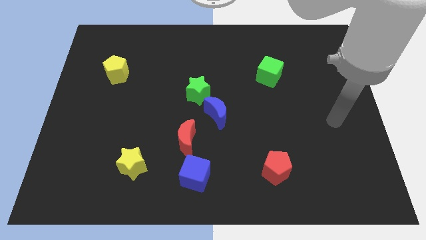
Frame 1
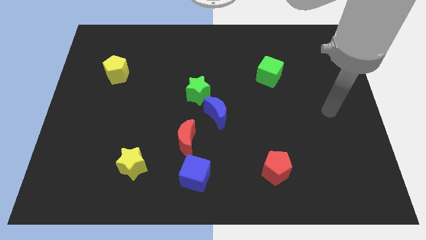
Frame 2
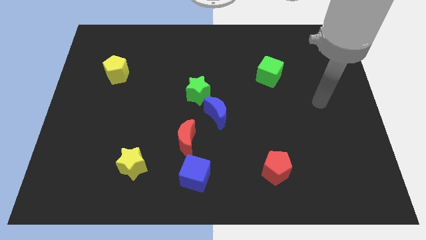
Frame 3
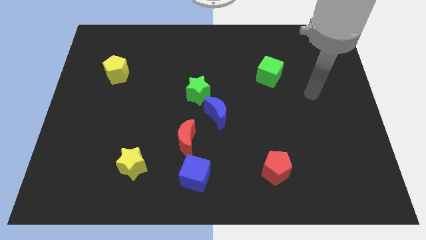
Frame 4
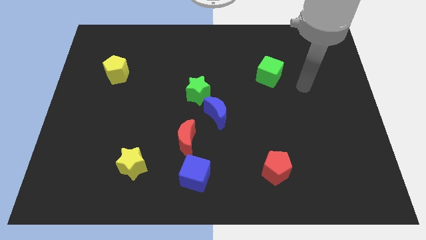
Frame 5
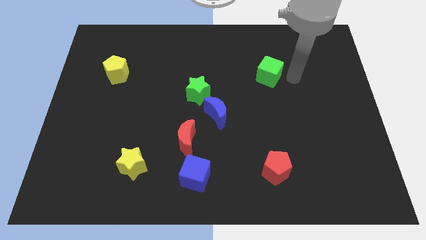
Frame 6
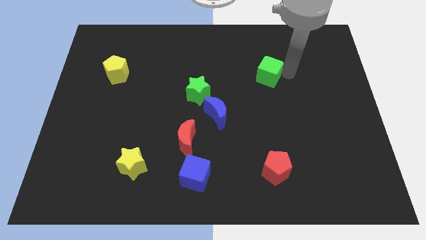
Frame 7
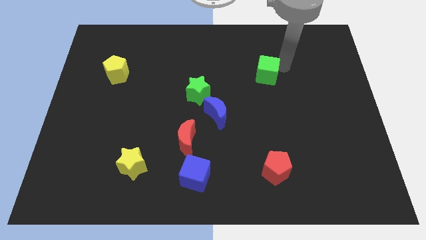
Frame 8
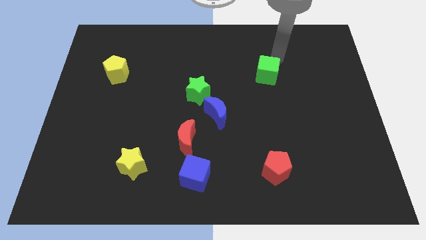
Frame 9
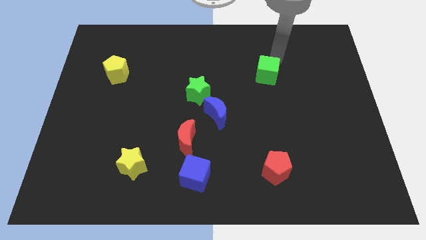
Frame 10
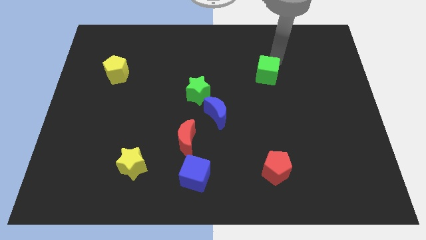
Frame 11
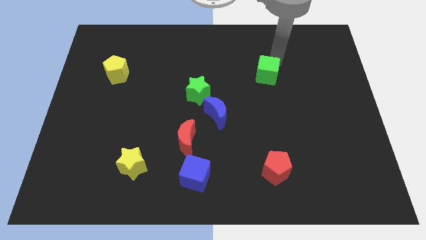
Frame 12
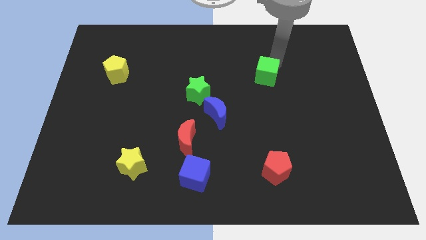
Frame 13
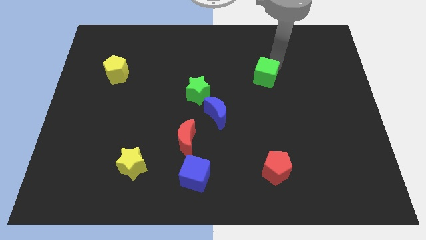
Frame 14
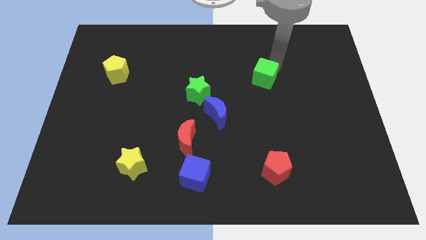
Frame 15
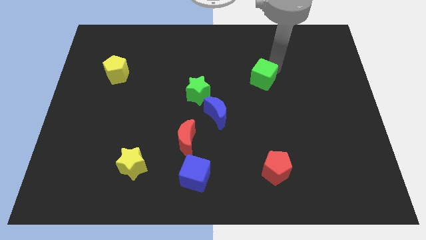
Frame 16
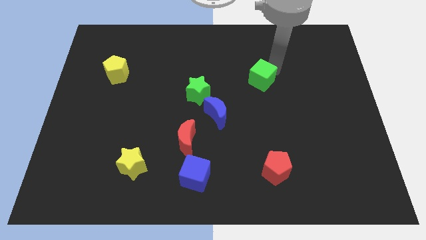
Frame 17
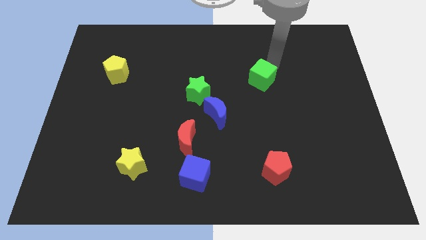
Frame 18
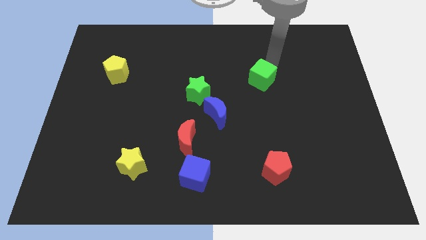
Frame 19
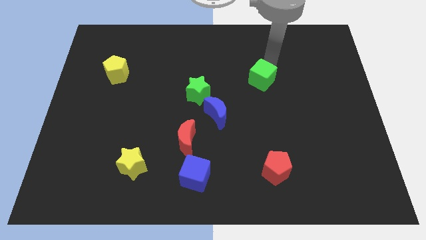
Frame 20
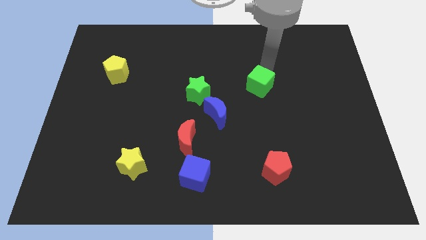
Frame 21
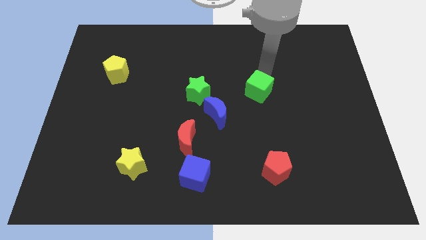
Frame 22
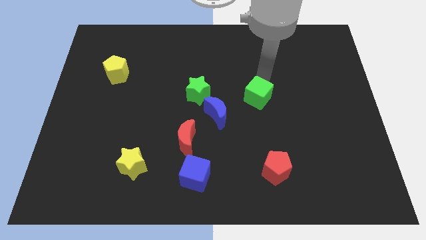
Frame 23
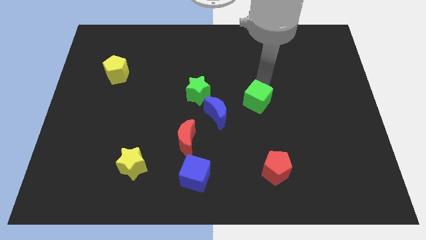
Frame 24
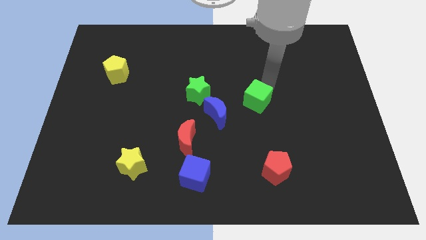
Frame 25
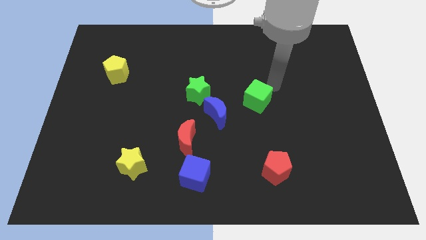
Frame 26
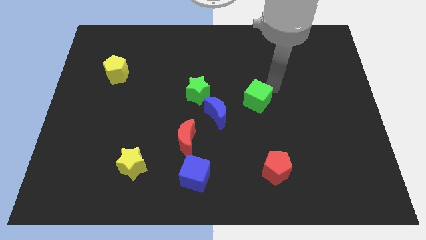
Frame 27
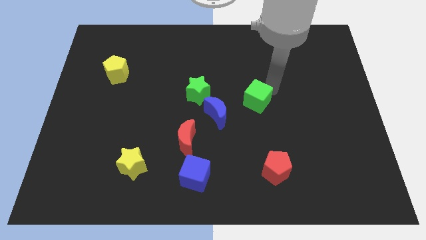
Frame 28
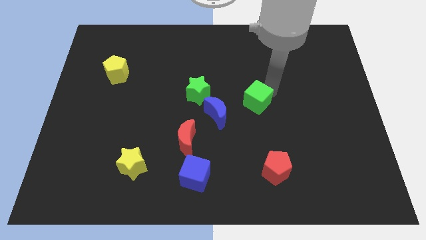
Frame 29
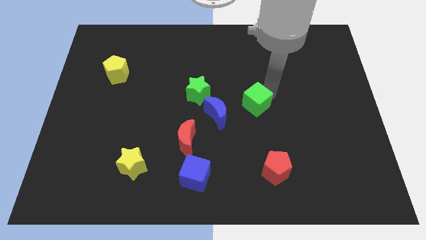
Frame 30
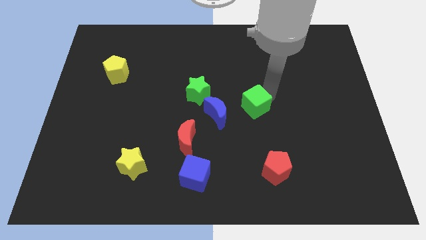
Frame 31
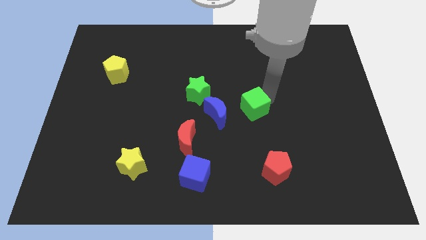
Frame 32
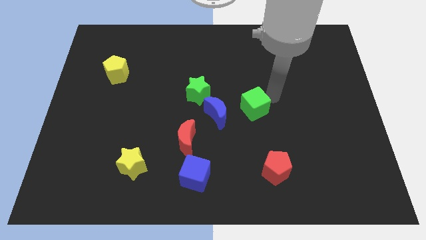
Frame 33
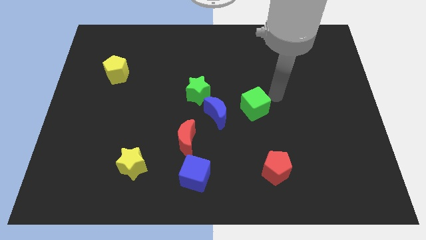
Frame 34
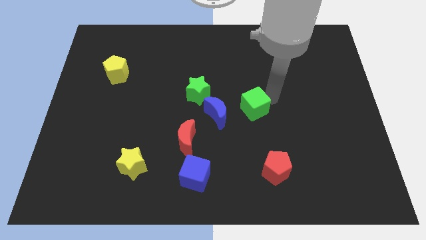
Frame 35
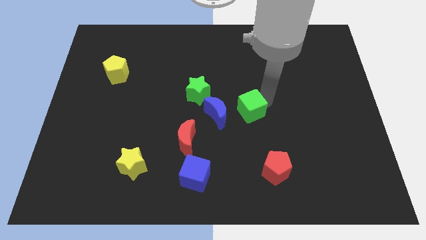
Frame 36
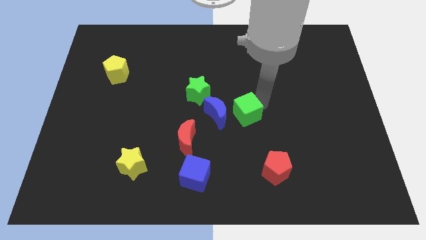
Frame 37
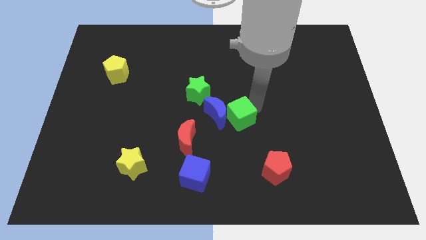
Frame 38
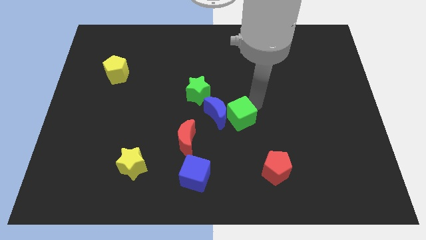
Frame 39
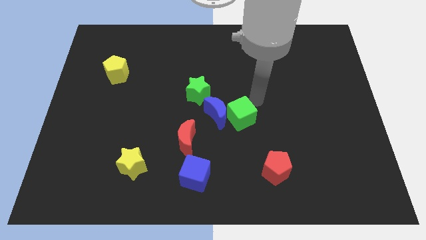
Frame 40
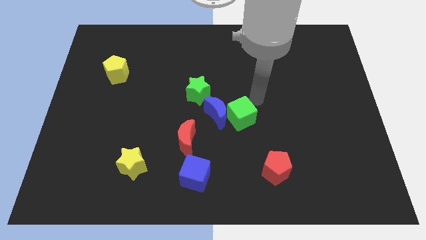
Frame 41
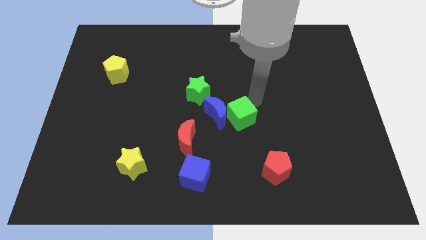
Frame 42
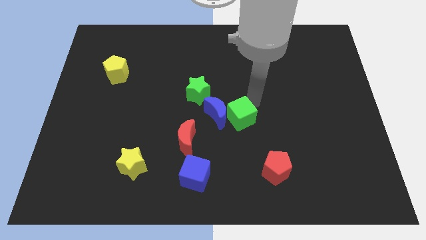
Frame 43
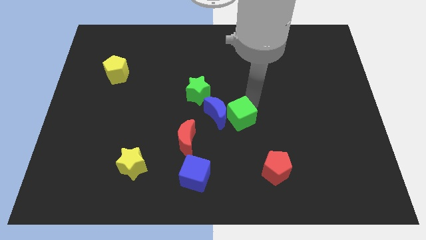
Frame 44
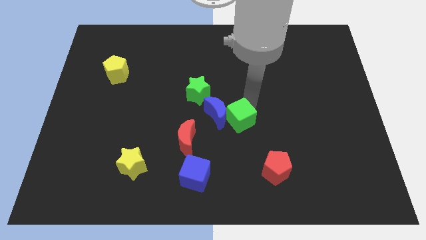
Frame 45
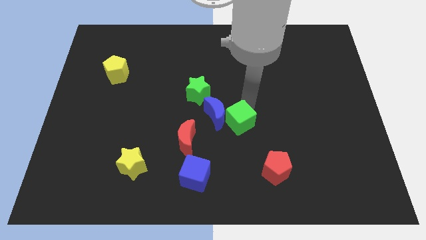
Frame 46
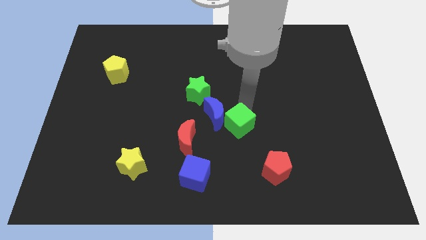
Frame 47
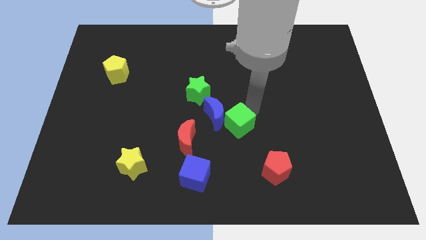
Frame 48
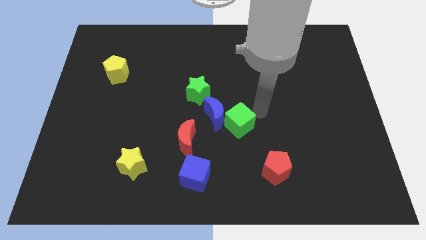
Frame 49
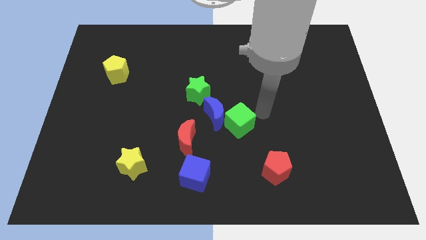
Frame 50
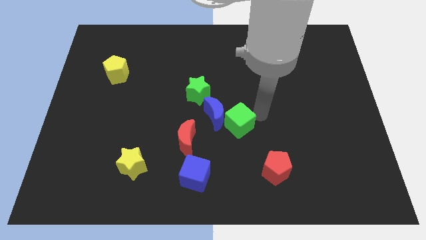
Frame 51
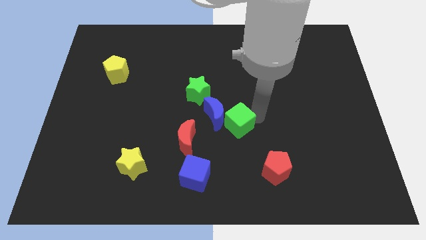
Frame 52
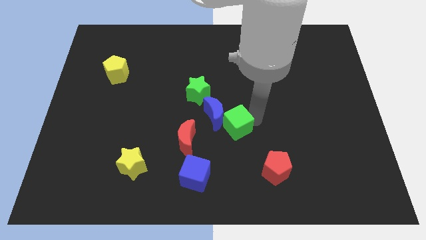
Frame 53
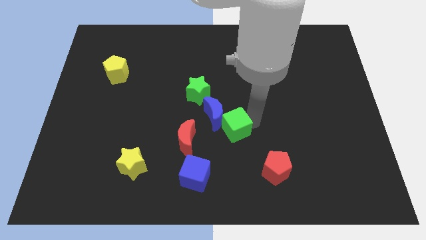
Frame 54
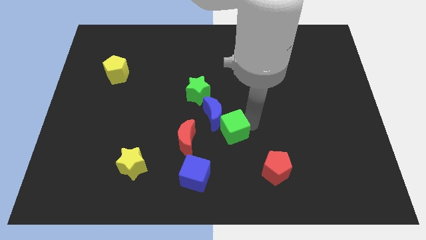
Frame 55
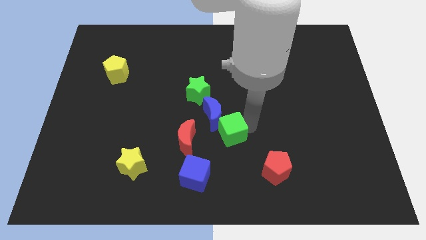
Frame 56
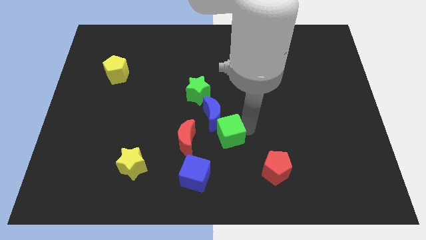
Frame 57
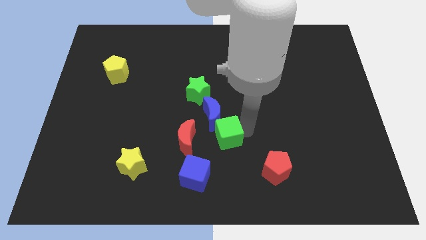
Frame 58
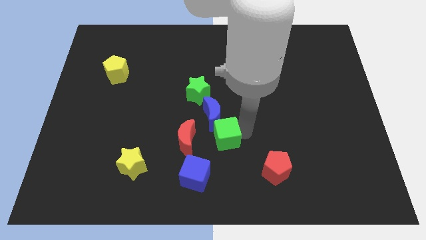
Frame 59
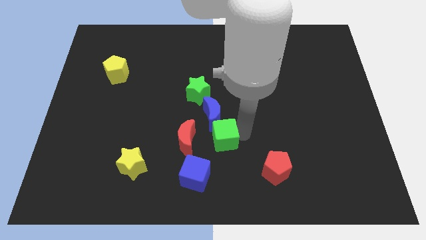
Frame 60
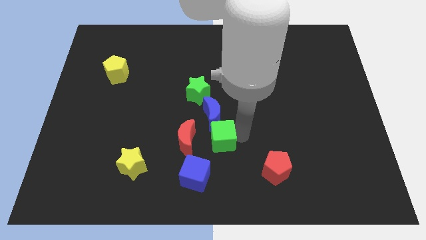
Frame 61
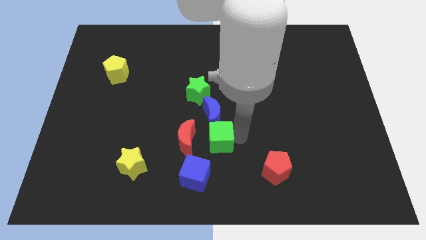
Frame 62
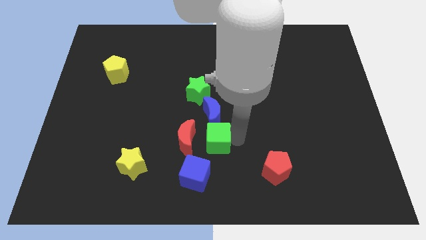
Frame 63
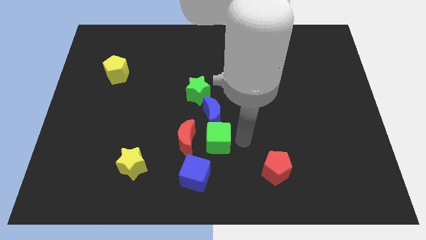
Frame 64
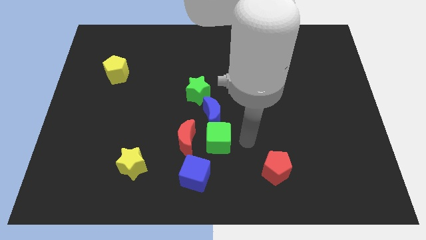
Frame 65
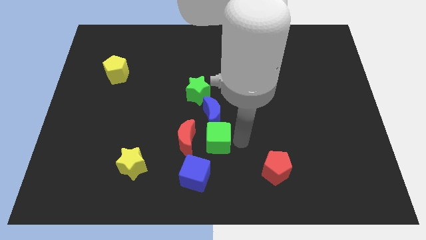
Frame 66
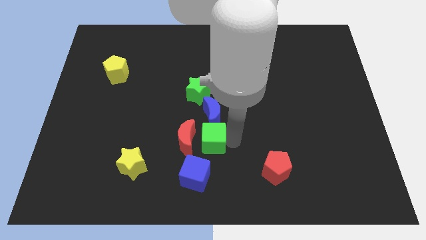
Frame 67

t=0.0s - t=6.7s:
slide the green cube close to the red moon
